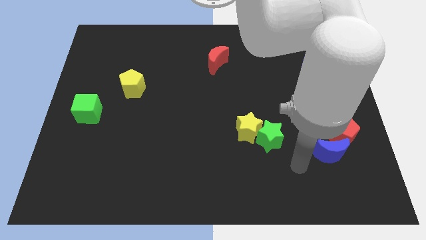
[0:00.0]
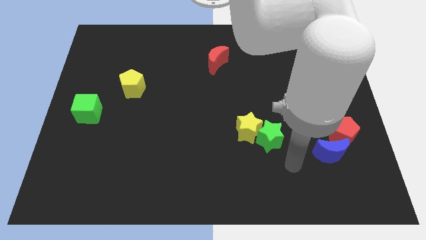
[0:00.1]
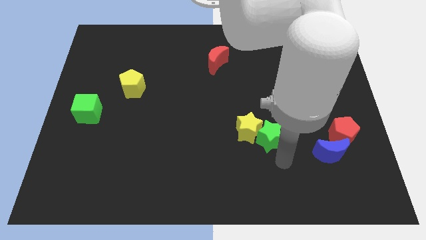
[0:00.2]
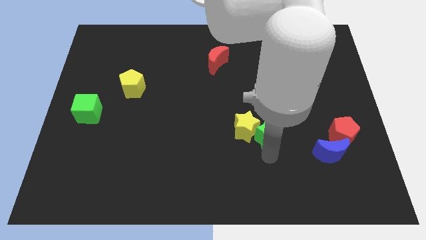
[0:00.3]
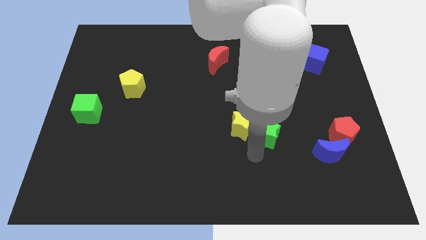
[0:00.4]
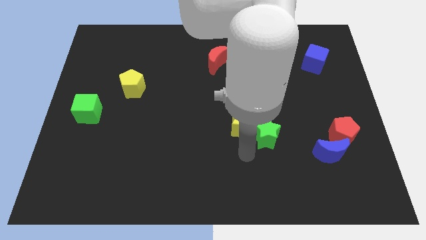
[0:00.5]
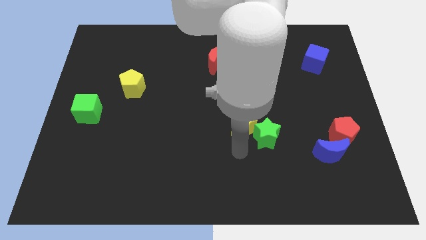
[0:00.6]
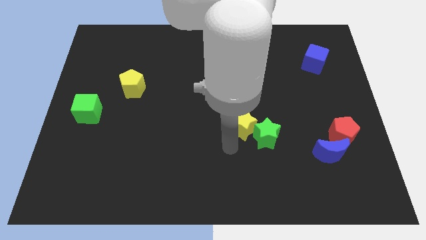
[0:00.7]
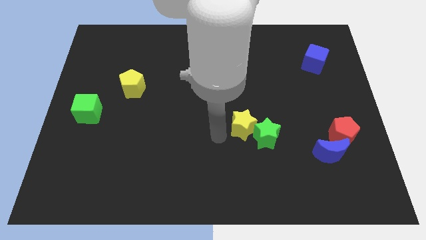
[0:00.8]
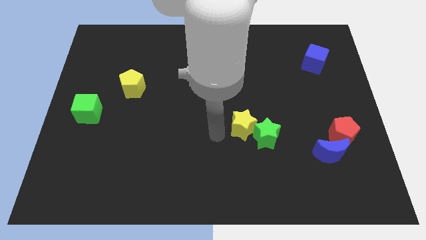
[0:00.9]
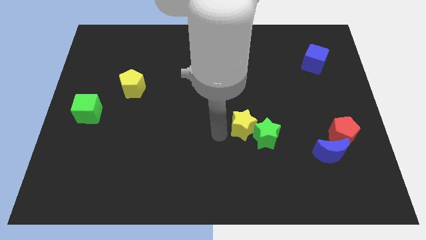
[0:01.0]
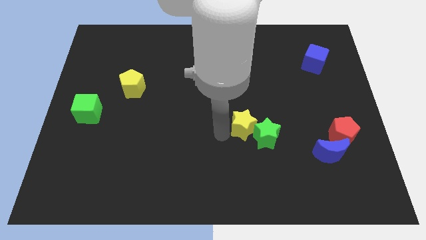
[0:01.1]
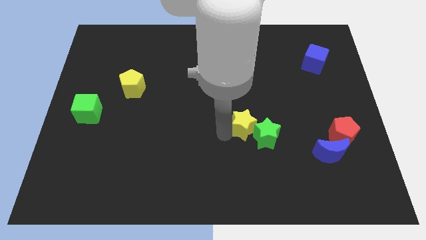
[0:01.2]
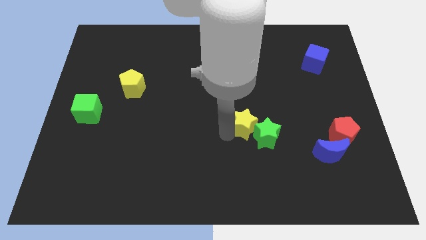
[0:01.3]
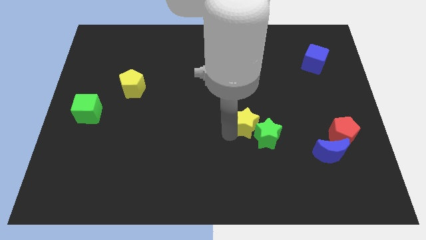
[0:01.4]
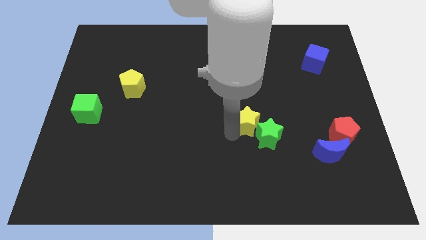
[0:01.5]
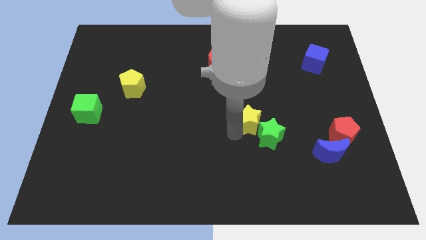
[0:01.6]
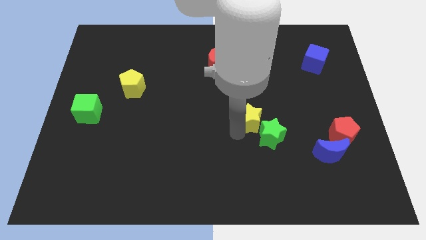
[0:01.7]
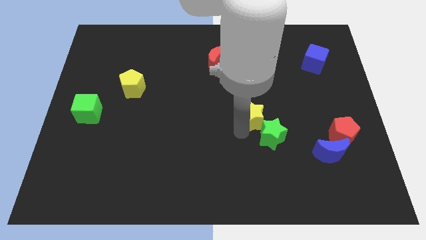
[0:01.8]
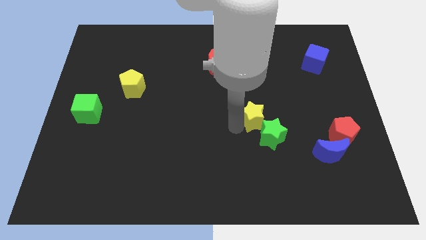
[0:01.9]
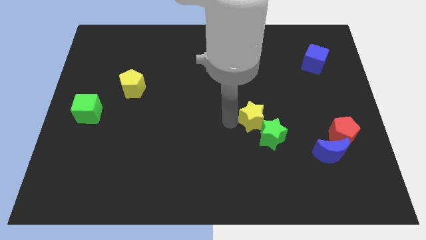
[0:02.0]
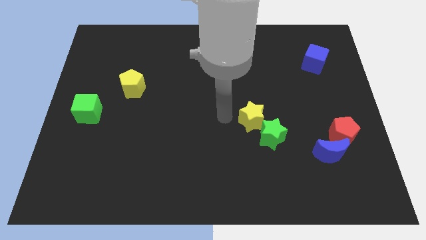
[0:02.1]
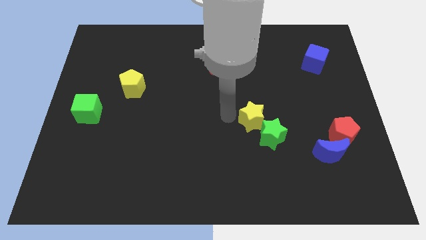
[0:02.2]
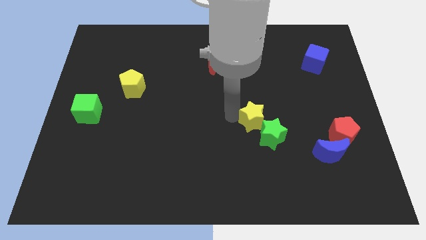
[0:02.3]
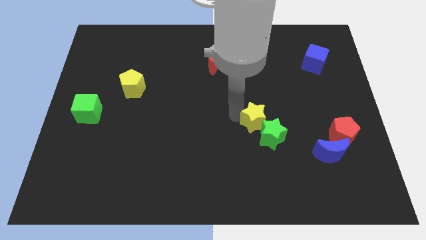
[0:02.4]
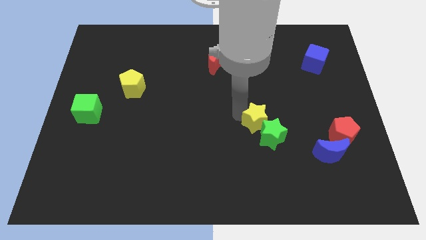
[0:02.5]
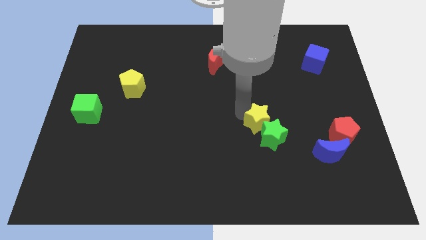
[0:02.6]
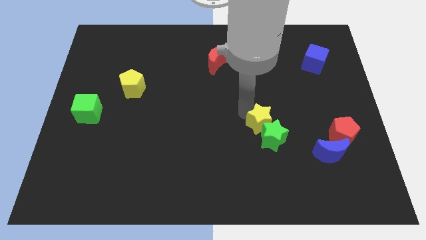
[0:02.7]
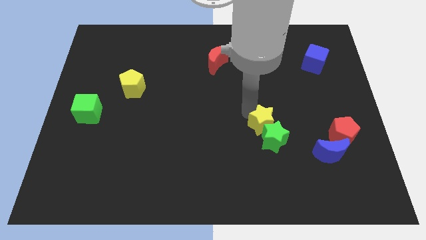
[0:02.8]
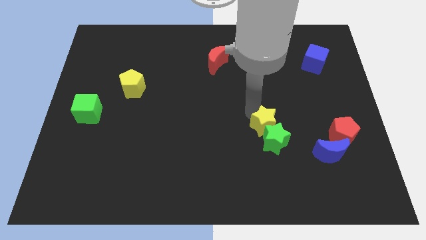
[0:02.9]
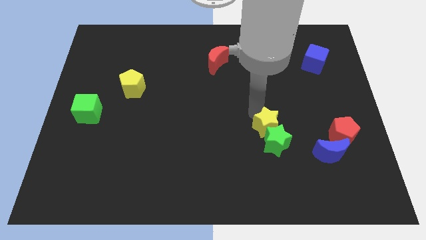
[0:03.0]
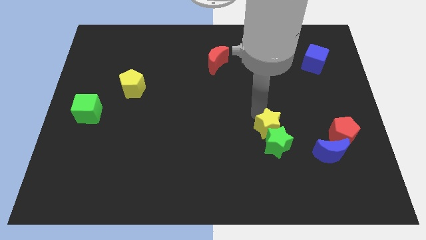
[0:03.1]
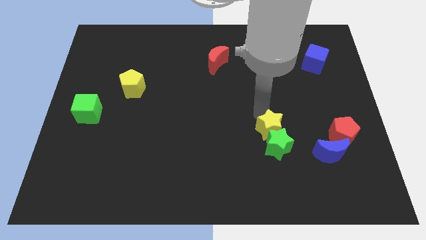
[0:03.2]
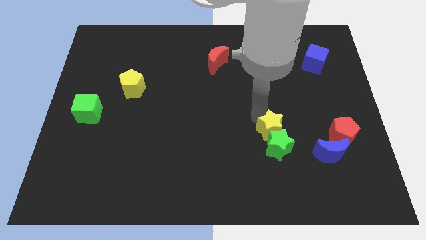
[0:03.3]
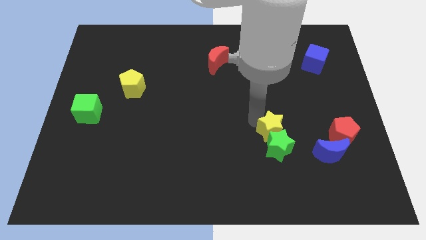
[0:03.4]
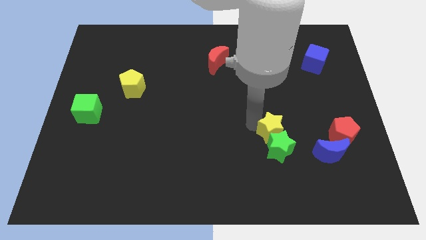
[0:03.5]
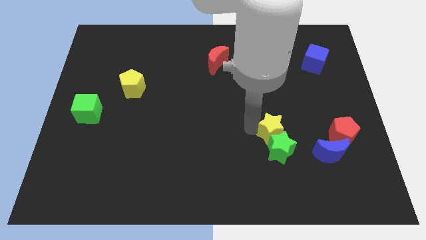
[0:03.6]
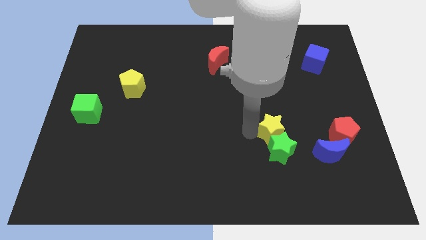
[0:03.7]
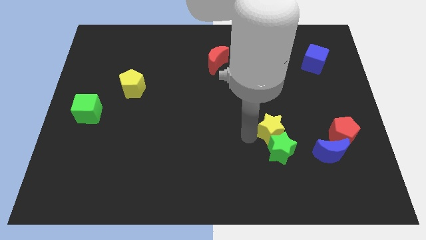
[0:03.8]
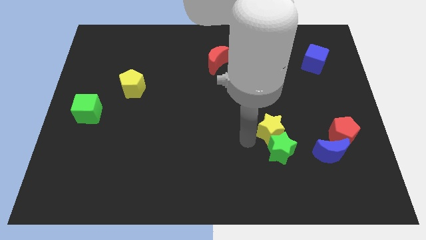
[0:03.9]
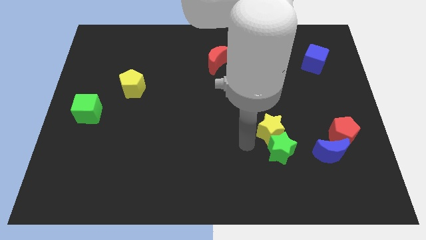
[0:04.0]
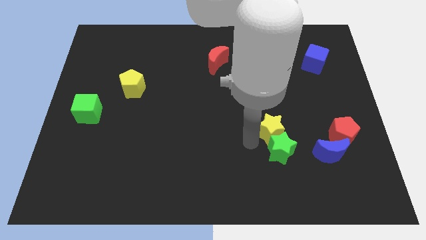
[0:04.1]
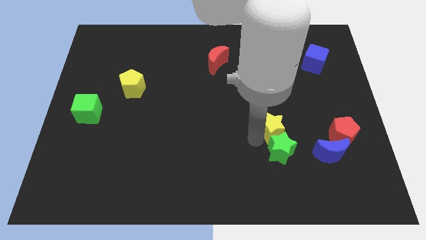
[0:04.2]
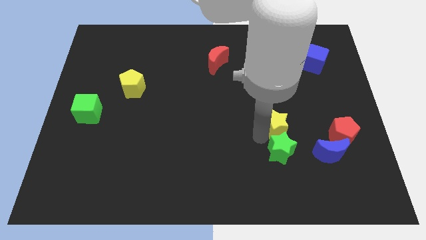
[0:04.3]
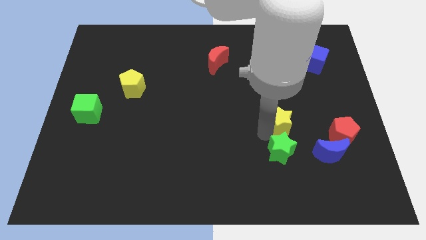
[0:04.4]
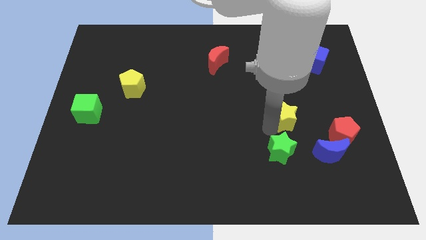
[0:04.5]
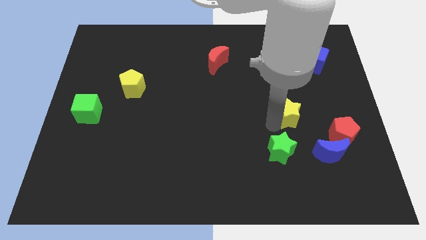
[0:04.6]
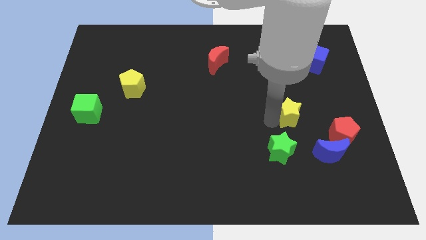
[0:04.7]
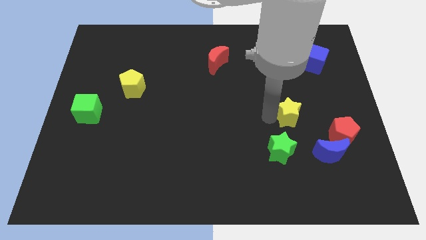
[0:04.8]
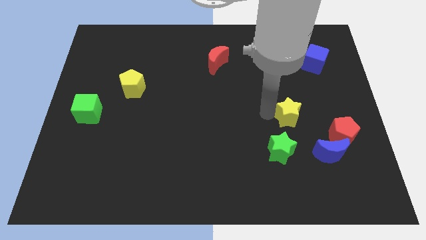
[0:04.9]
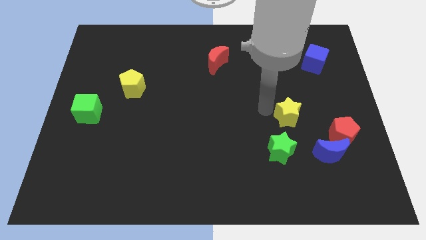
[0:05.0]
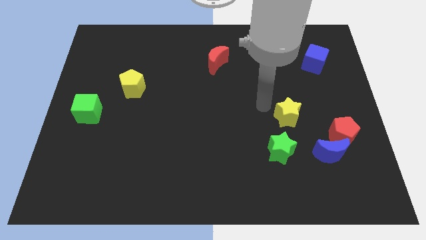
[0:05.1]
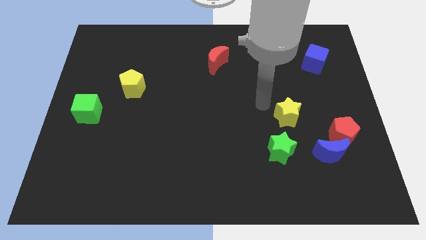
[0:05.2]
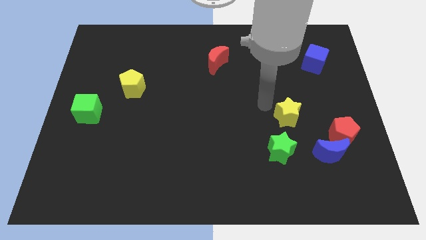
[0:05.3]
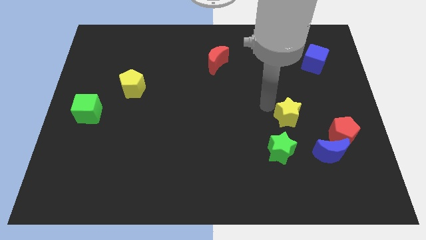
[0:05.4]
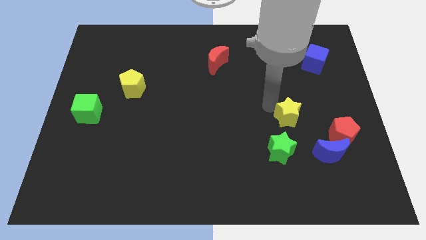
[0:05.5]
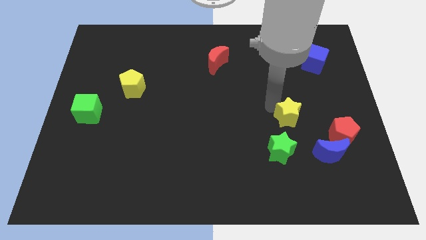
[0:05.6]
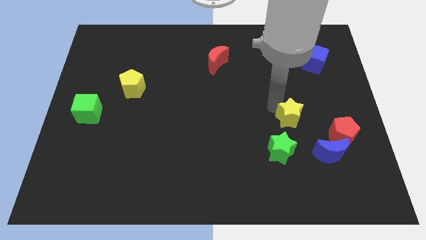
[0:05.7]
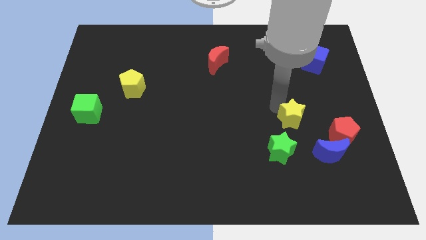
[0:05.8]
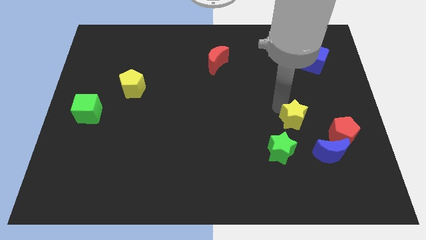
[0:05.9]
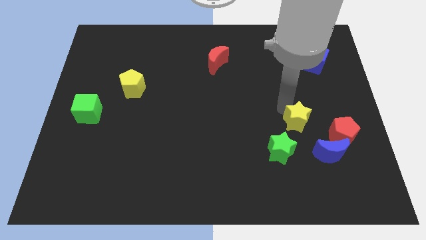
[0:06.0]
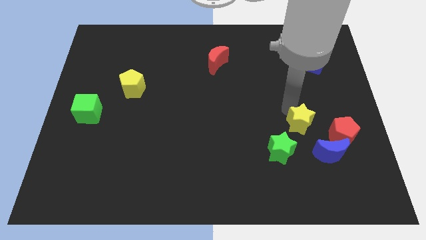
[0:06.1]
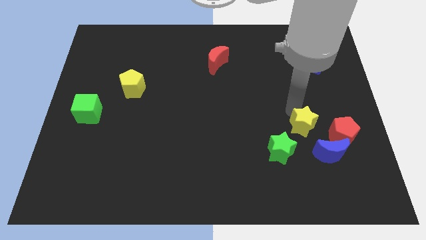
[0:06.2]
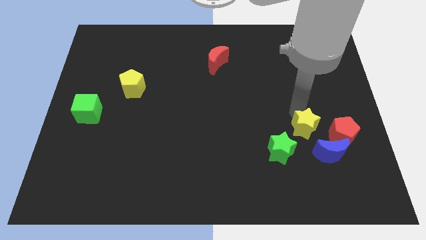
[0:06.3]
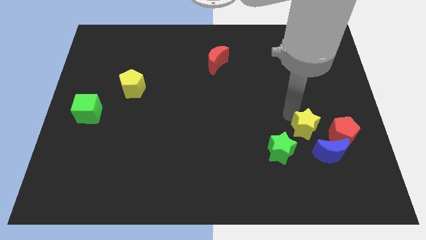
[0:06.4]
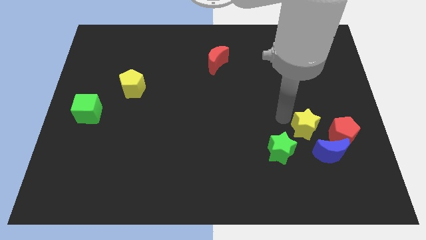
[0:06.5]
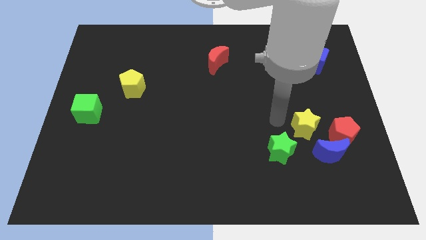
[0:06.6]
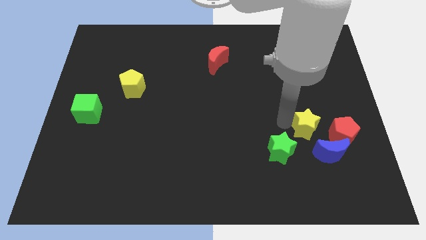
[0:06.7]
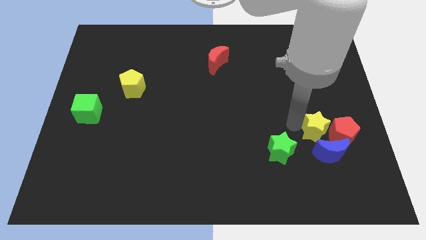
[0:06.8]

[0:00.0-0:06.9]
push the yellow star to the red pentagon
